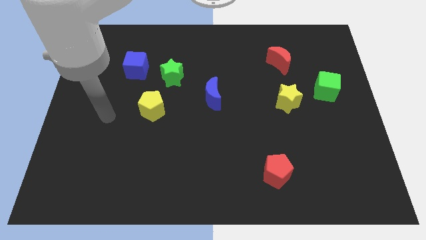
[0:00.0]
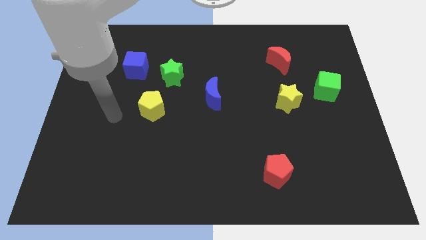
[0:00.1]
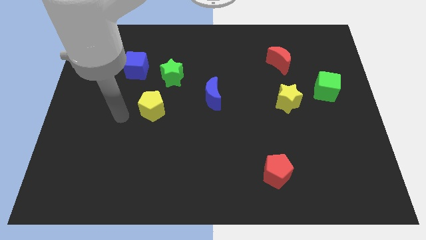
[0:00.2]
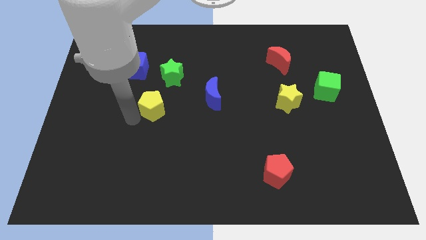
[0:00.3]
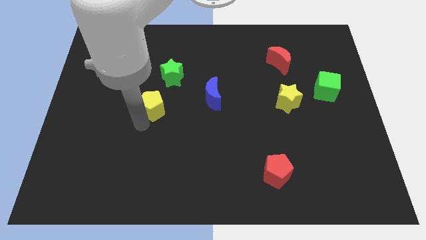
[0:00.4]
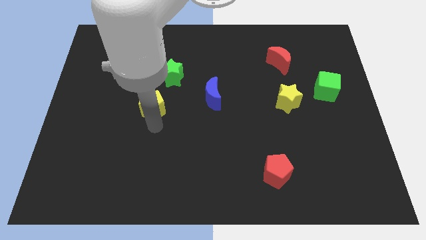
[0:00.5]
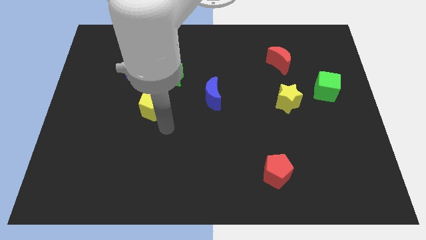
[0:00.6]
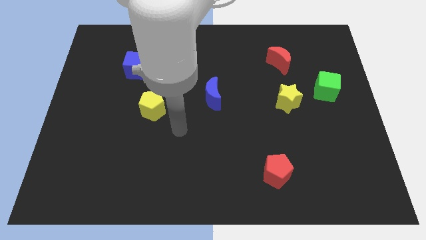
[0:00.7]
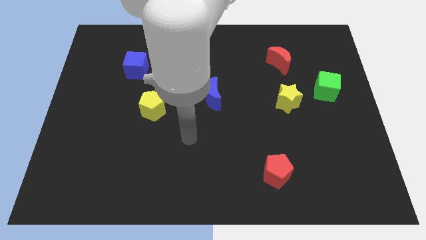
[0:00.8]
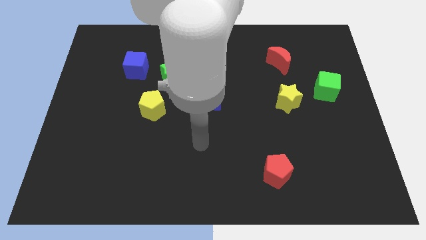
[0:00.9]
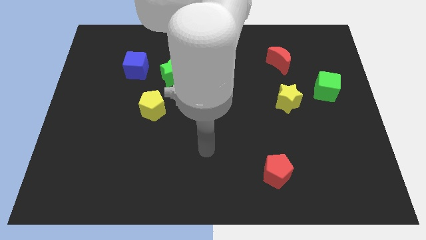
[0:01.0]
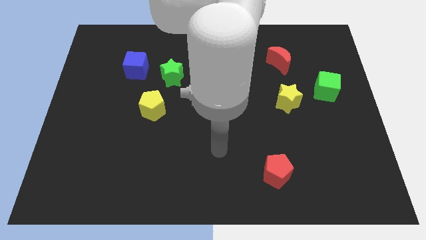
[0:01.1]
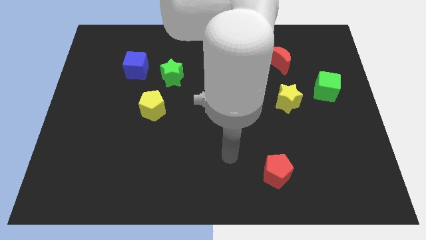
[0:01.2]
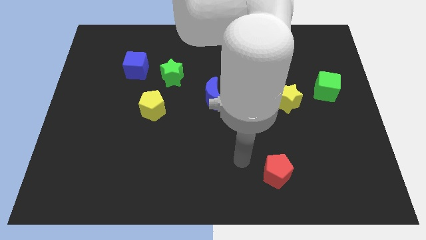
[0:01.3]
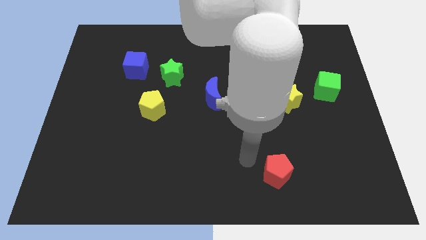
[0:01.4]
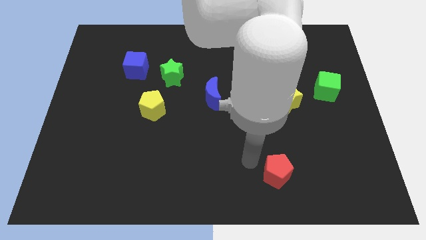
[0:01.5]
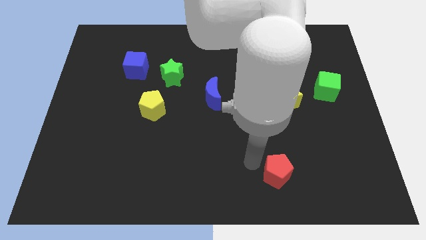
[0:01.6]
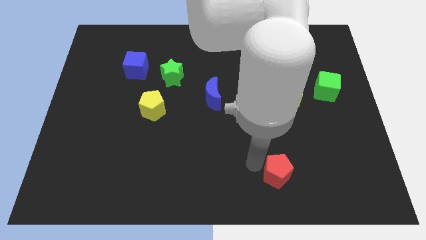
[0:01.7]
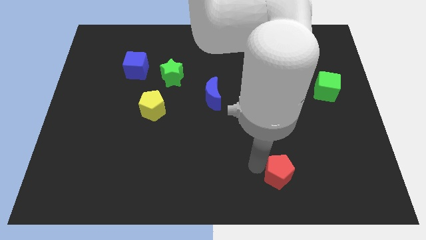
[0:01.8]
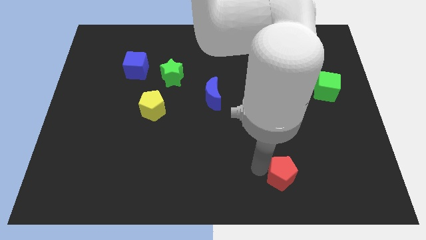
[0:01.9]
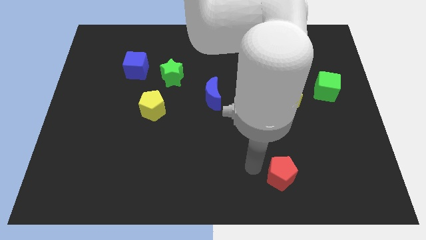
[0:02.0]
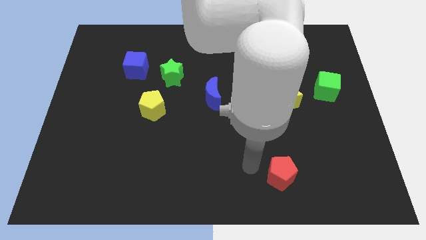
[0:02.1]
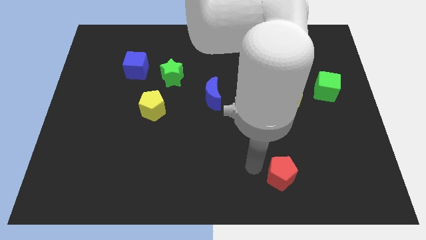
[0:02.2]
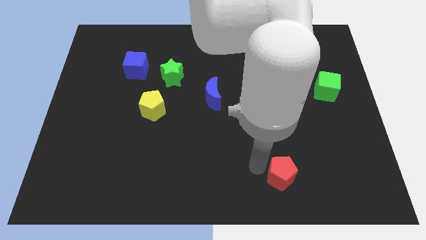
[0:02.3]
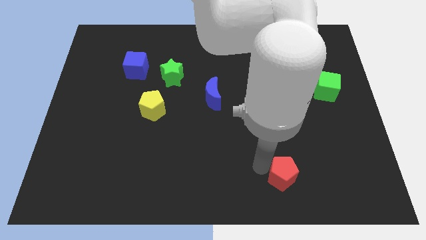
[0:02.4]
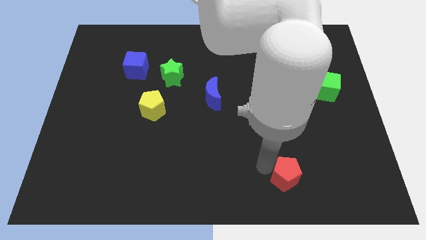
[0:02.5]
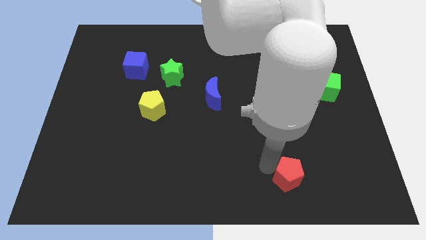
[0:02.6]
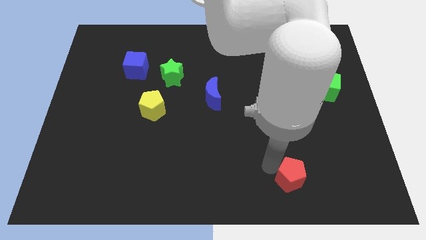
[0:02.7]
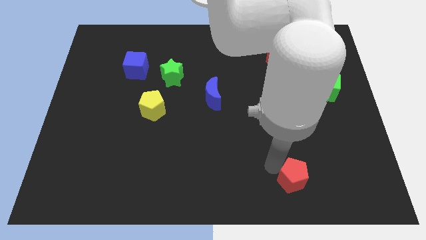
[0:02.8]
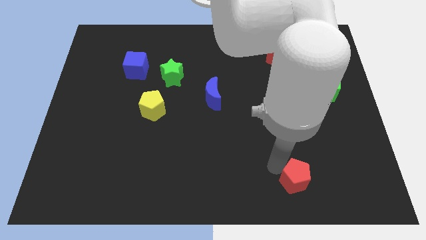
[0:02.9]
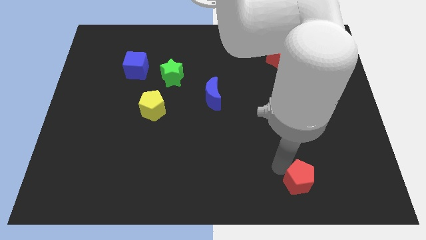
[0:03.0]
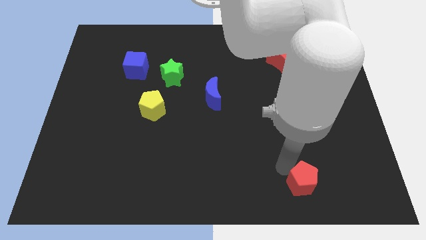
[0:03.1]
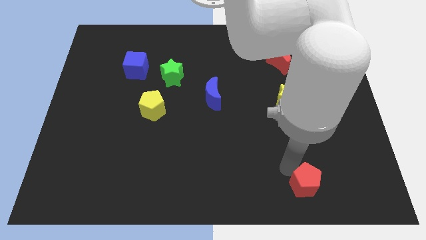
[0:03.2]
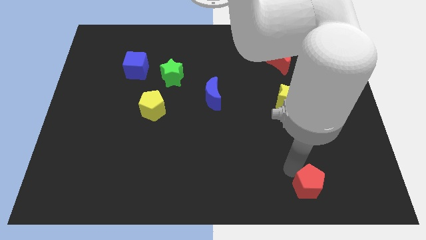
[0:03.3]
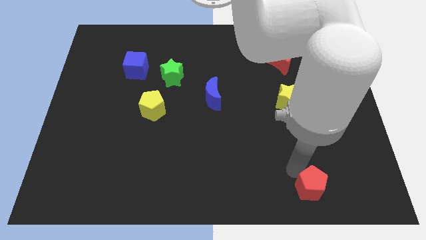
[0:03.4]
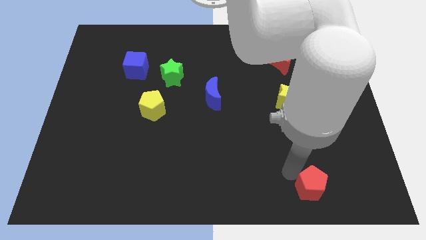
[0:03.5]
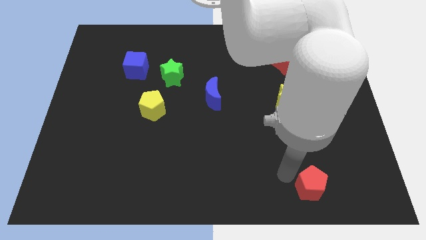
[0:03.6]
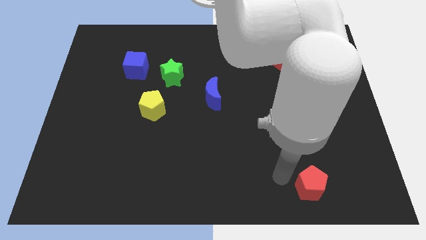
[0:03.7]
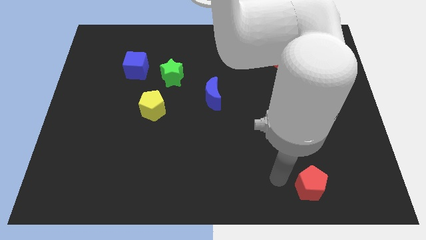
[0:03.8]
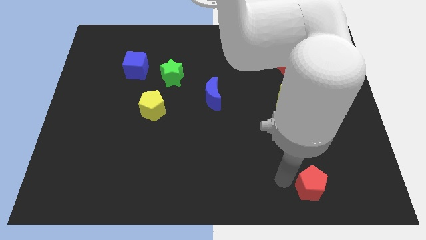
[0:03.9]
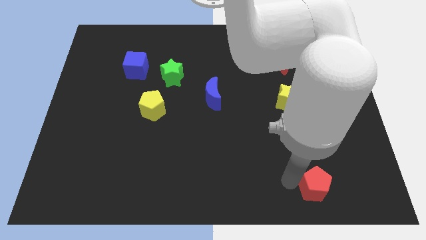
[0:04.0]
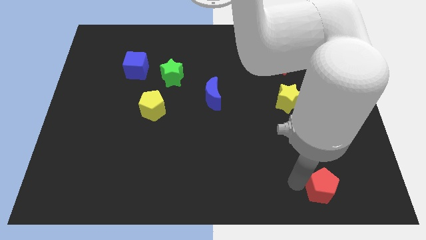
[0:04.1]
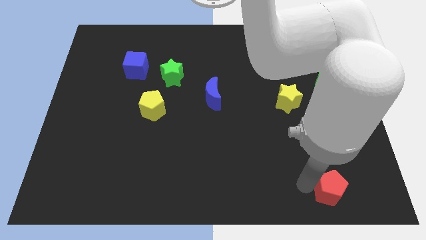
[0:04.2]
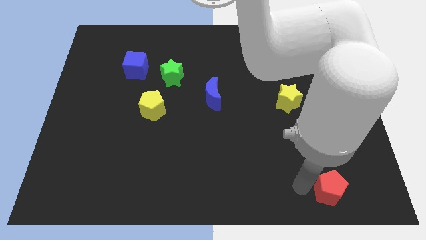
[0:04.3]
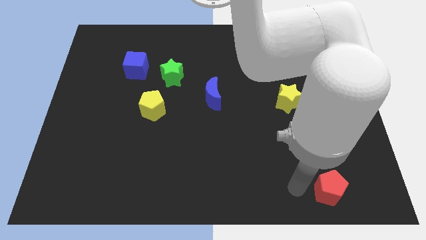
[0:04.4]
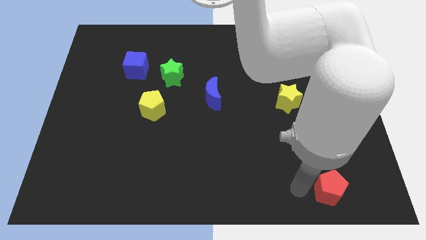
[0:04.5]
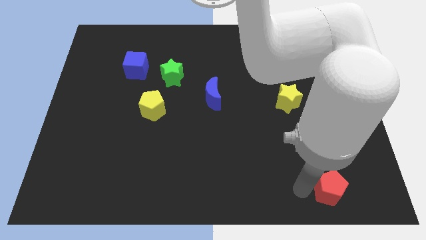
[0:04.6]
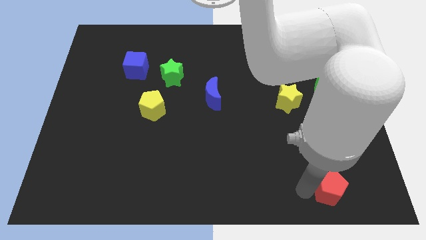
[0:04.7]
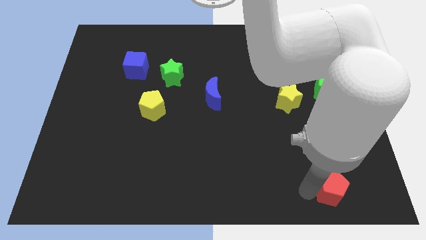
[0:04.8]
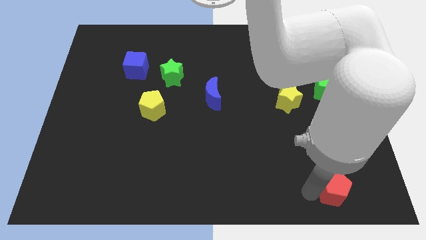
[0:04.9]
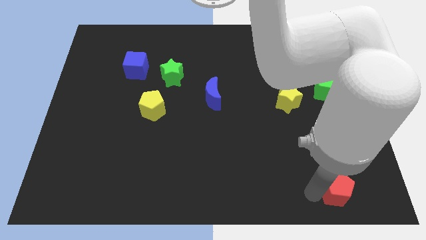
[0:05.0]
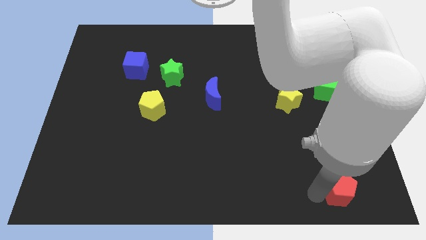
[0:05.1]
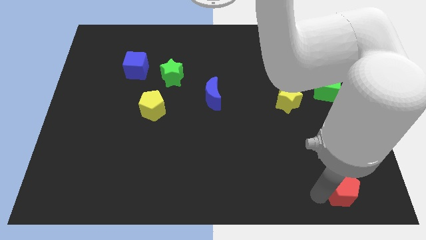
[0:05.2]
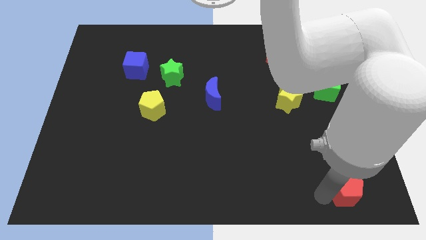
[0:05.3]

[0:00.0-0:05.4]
push the red pentagon to the lower right corner
